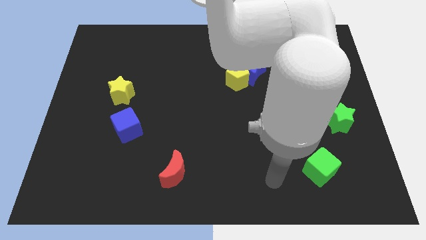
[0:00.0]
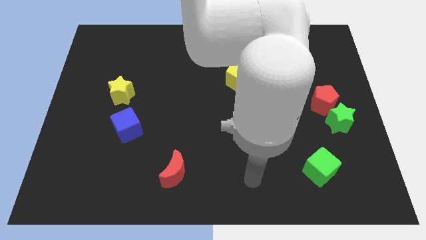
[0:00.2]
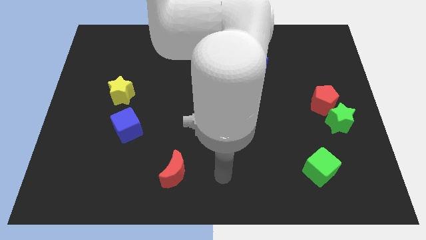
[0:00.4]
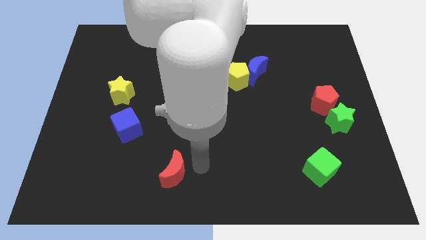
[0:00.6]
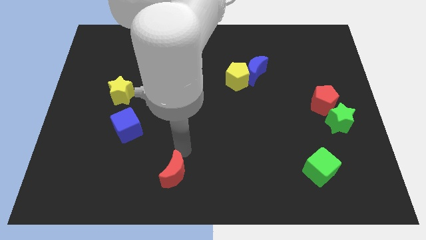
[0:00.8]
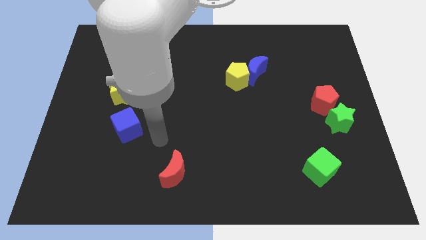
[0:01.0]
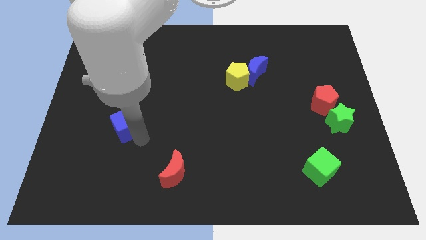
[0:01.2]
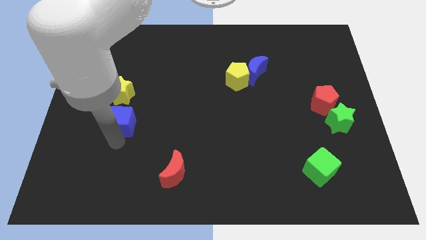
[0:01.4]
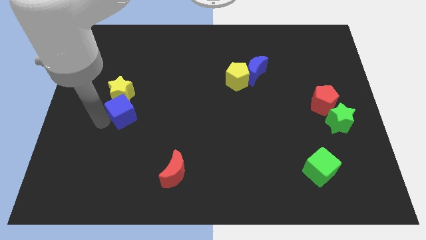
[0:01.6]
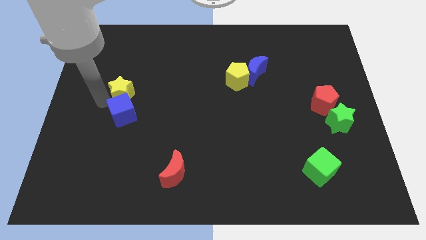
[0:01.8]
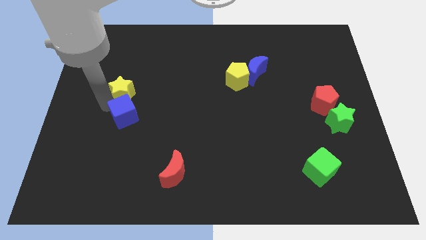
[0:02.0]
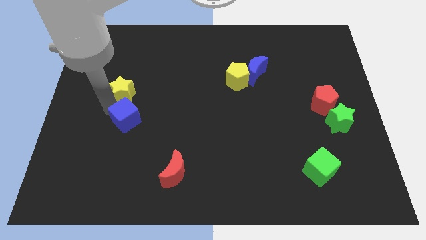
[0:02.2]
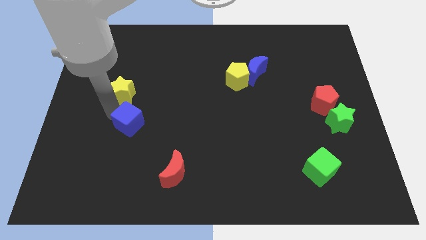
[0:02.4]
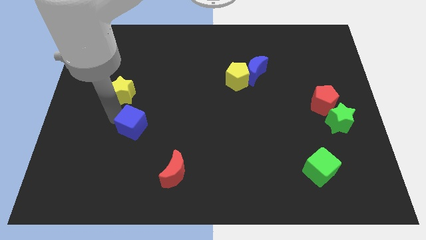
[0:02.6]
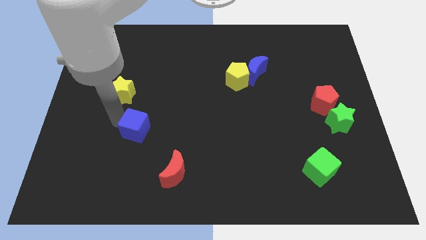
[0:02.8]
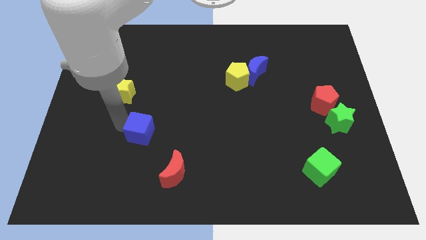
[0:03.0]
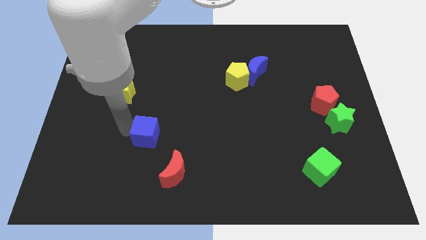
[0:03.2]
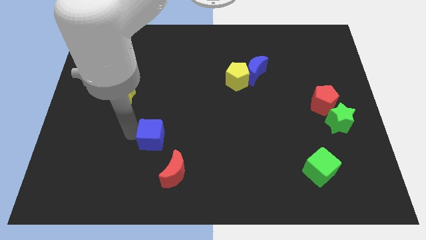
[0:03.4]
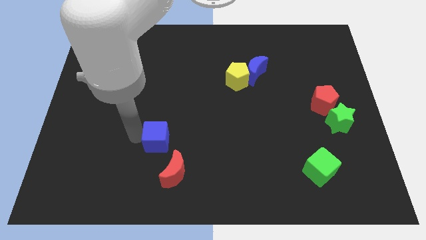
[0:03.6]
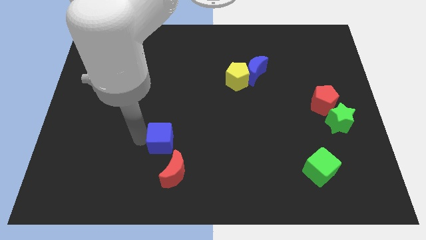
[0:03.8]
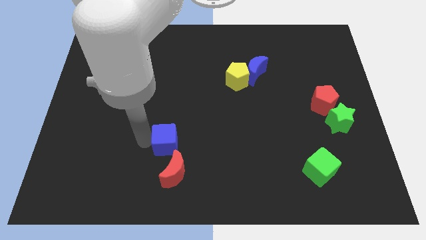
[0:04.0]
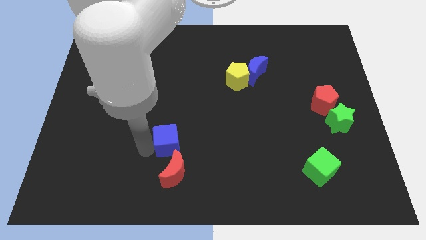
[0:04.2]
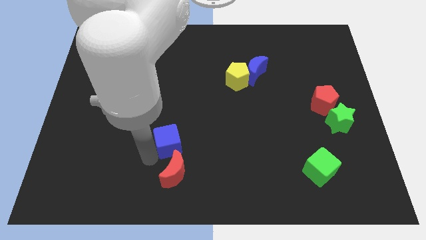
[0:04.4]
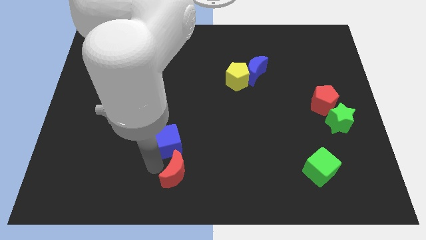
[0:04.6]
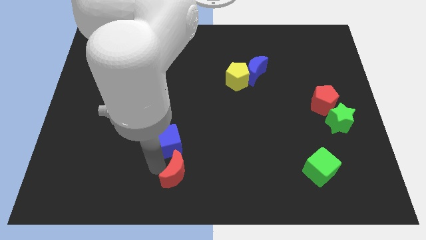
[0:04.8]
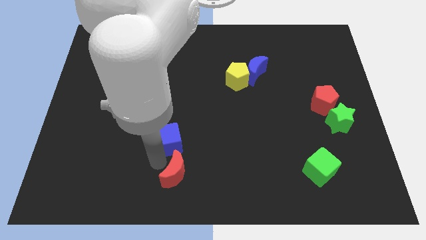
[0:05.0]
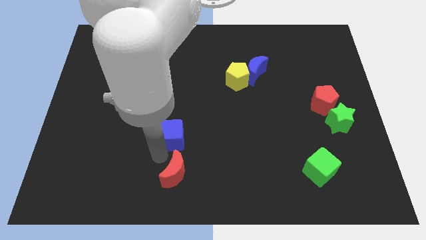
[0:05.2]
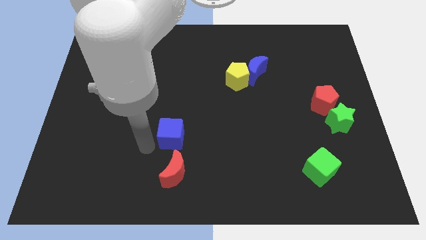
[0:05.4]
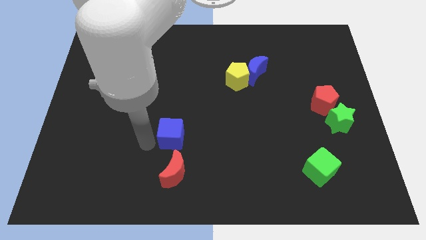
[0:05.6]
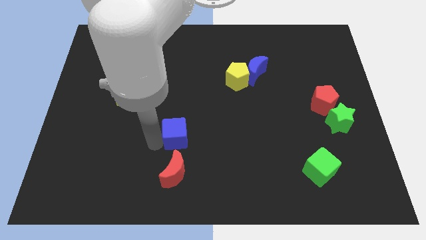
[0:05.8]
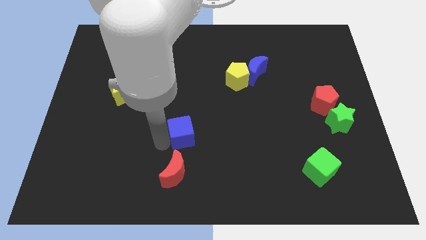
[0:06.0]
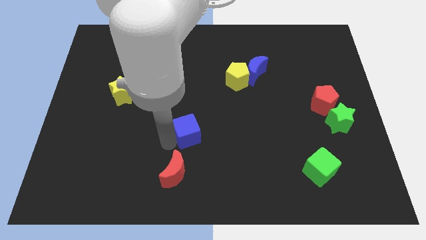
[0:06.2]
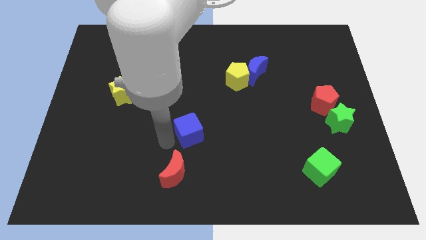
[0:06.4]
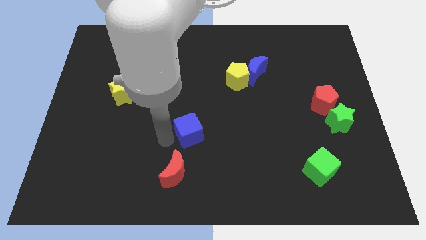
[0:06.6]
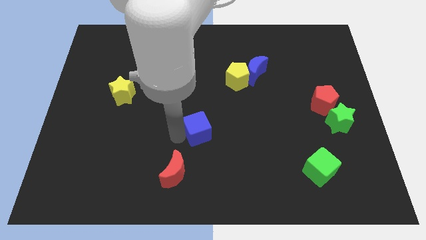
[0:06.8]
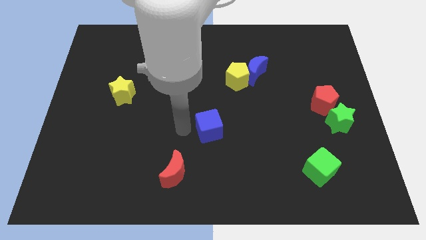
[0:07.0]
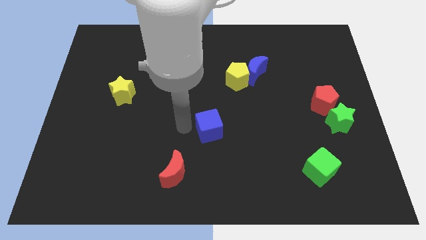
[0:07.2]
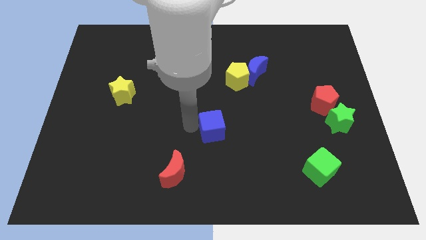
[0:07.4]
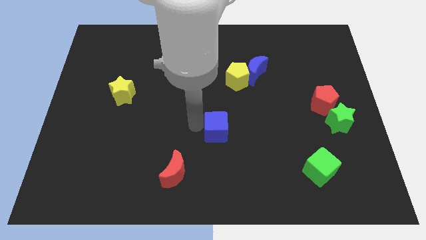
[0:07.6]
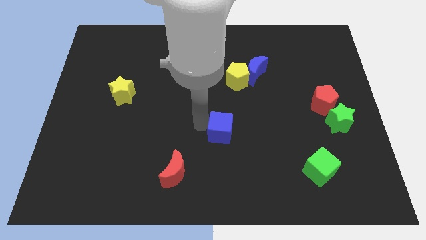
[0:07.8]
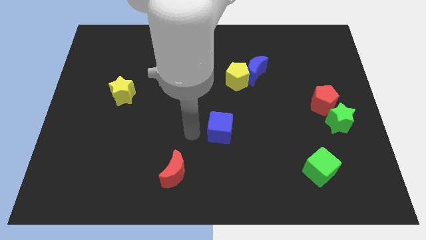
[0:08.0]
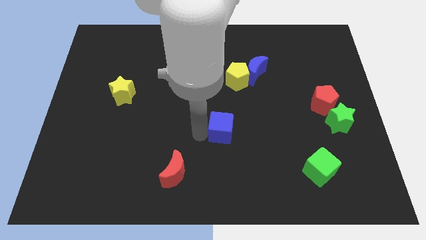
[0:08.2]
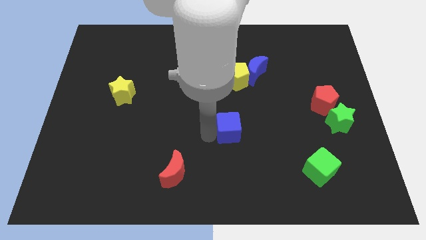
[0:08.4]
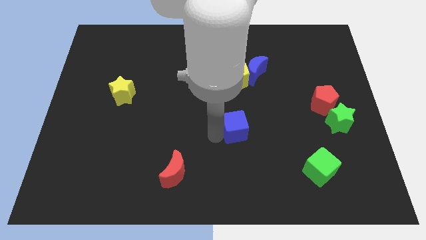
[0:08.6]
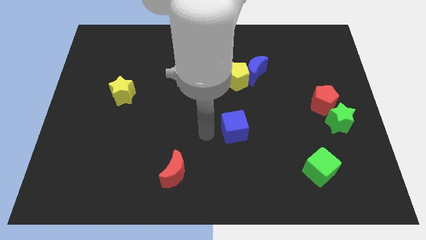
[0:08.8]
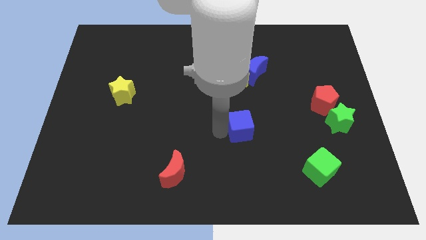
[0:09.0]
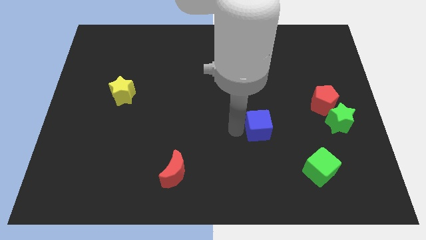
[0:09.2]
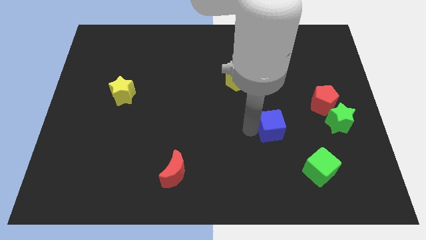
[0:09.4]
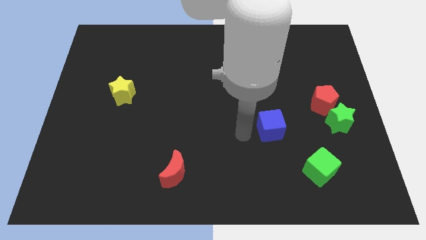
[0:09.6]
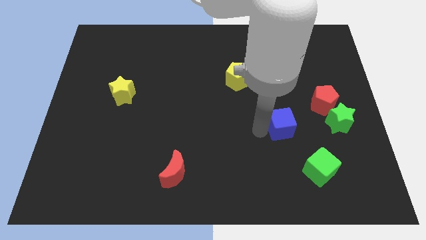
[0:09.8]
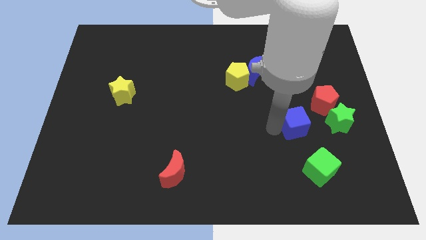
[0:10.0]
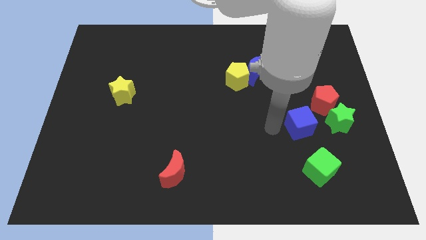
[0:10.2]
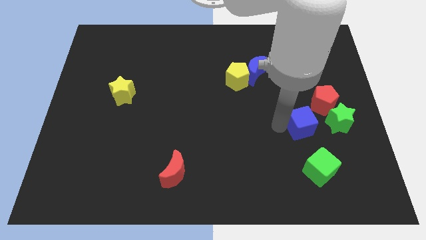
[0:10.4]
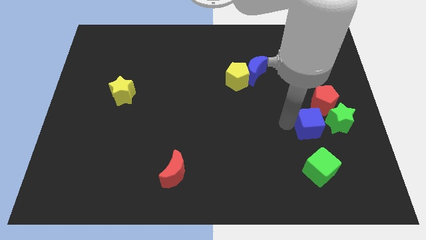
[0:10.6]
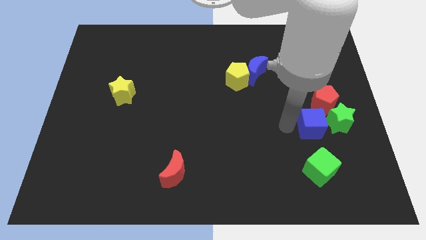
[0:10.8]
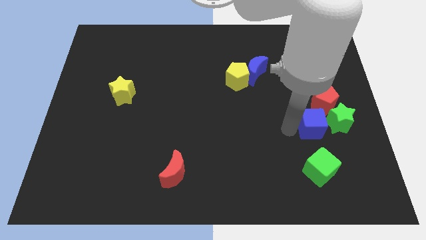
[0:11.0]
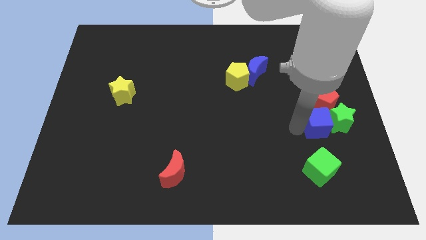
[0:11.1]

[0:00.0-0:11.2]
put the blue cube towards the green star

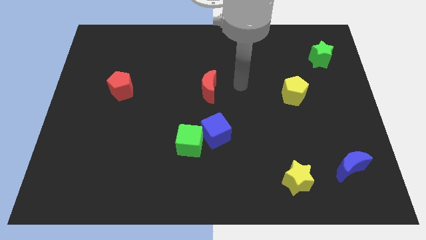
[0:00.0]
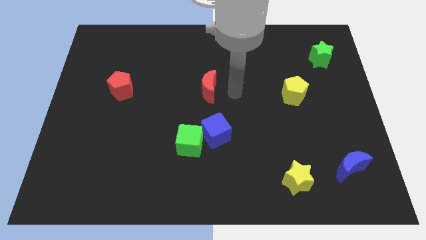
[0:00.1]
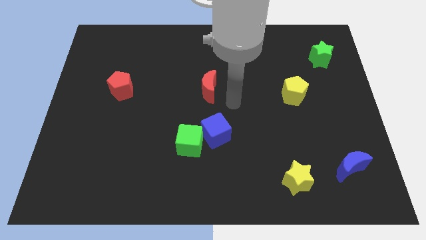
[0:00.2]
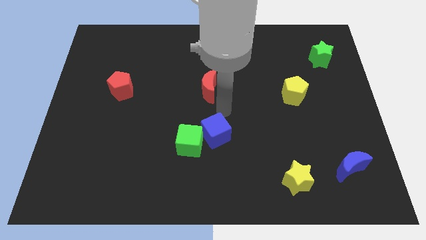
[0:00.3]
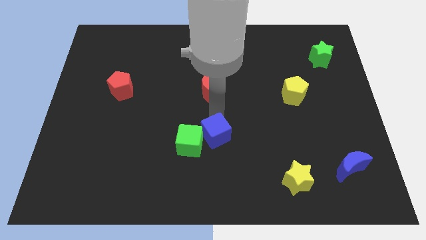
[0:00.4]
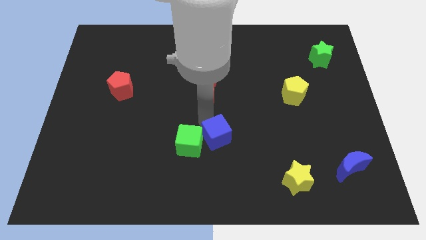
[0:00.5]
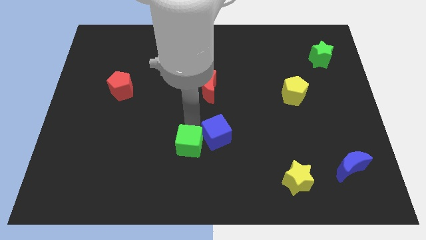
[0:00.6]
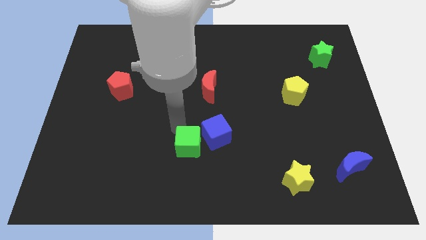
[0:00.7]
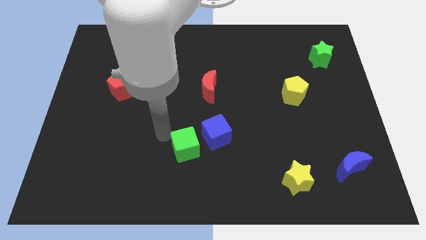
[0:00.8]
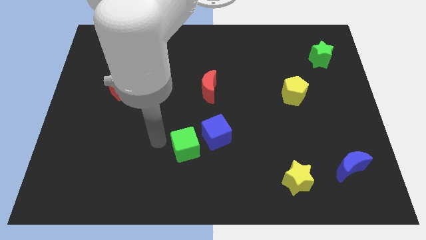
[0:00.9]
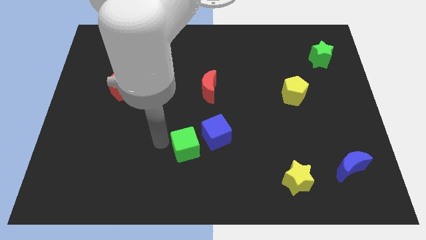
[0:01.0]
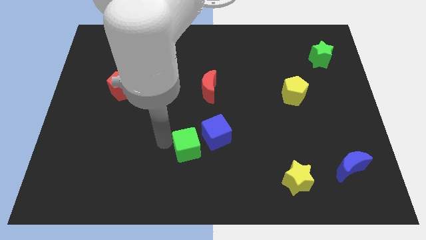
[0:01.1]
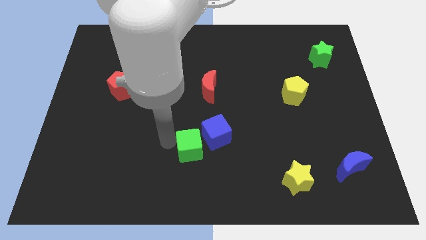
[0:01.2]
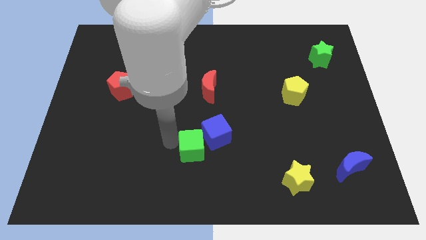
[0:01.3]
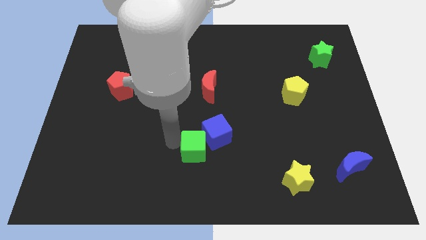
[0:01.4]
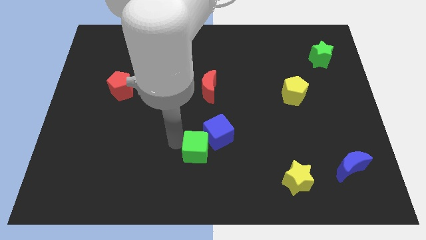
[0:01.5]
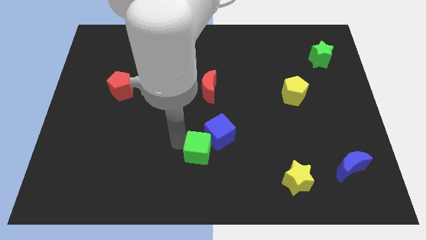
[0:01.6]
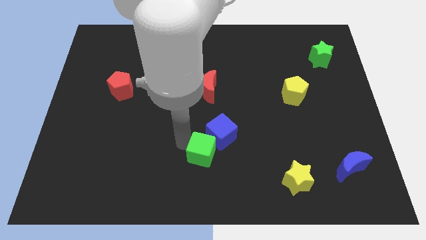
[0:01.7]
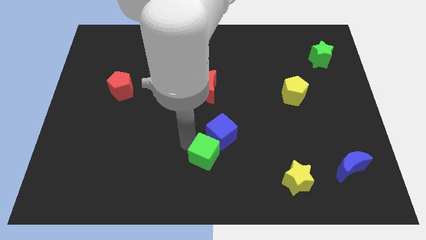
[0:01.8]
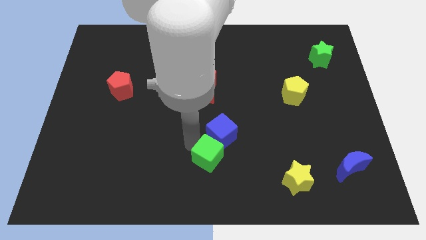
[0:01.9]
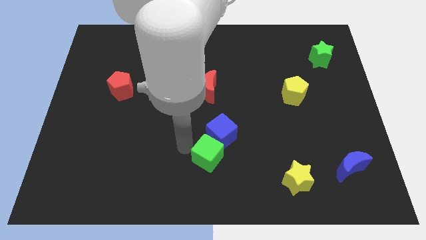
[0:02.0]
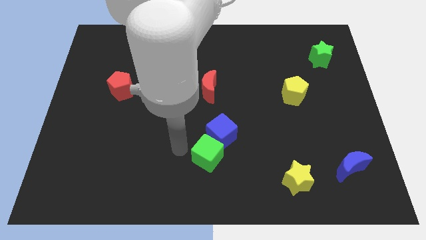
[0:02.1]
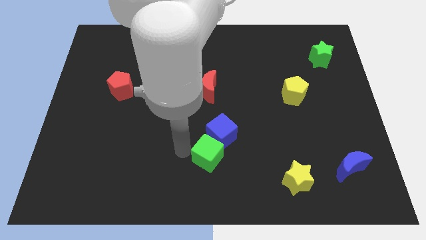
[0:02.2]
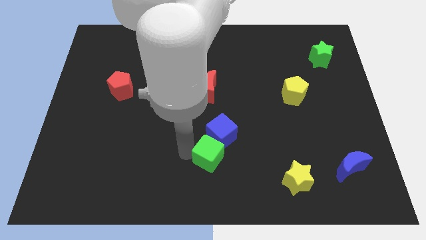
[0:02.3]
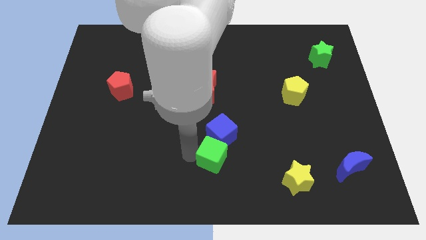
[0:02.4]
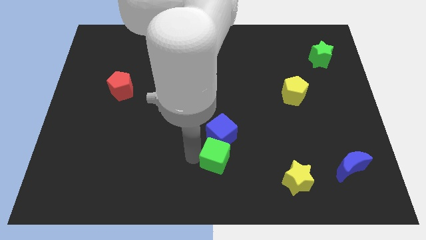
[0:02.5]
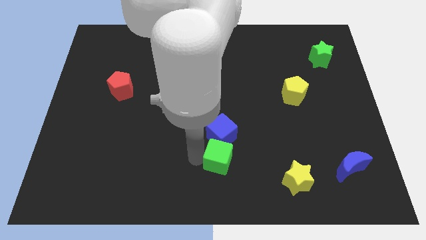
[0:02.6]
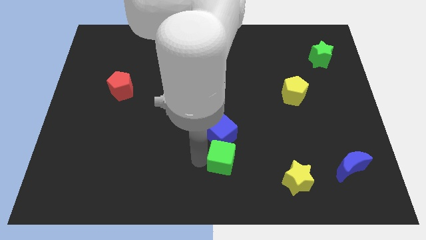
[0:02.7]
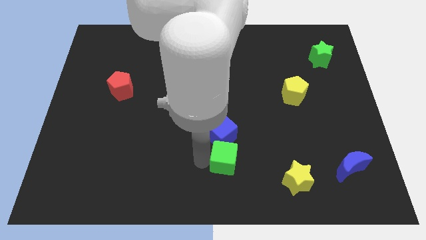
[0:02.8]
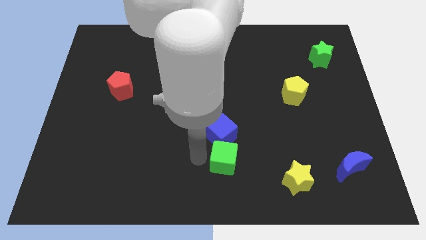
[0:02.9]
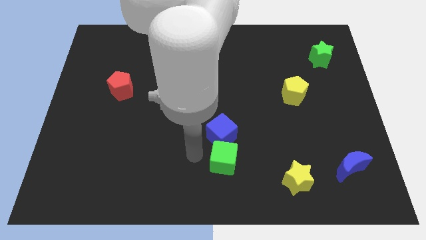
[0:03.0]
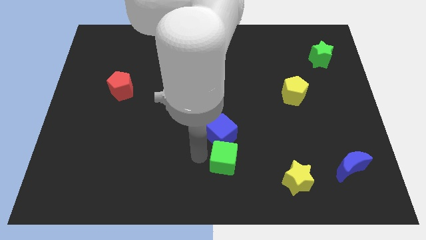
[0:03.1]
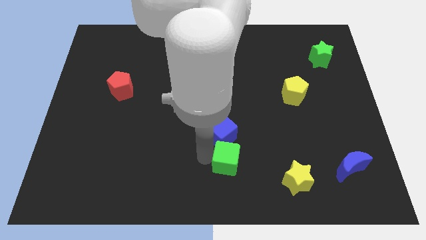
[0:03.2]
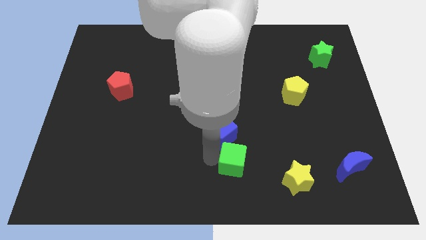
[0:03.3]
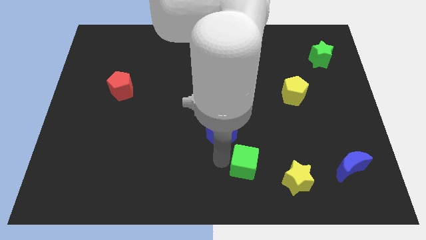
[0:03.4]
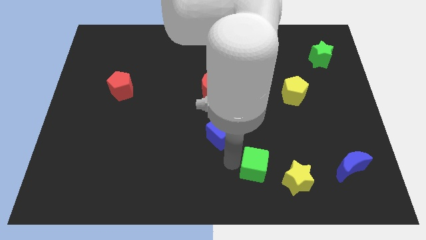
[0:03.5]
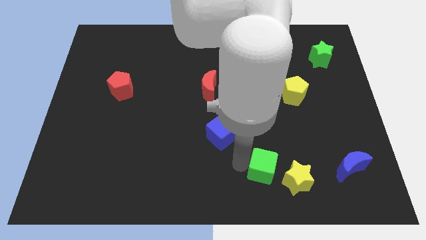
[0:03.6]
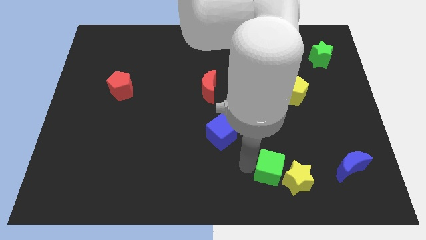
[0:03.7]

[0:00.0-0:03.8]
put the green cube to the yellow star
